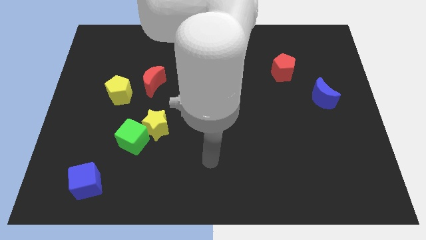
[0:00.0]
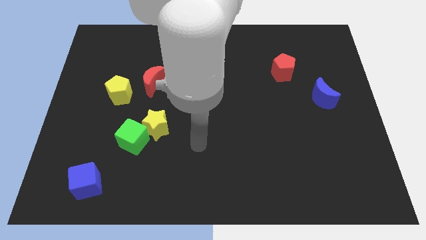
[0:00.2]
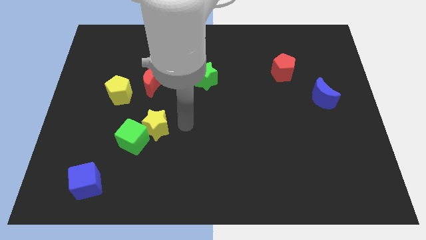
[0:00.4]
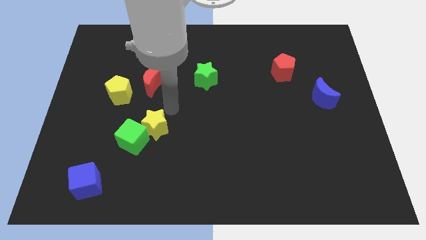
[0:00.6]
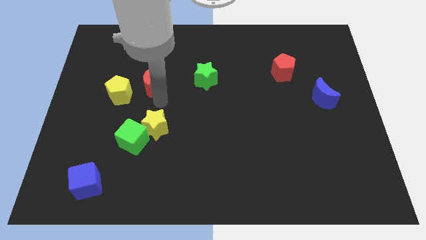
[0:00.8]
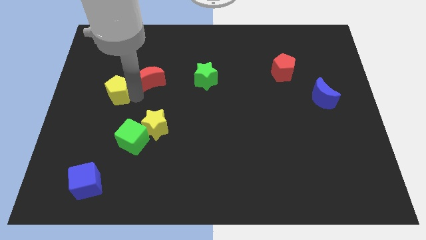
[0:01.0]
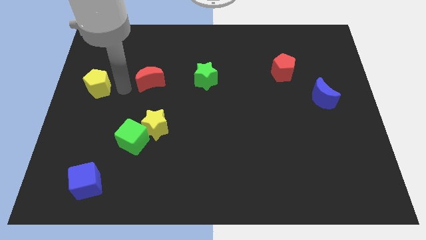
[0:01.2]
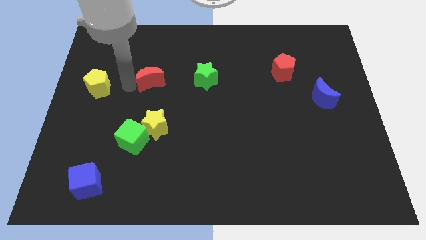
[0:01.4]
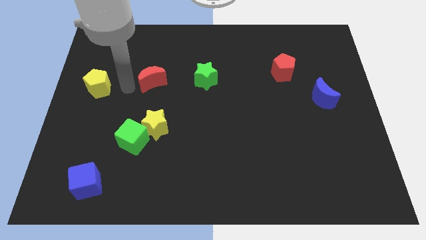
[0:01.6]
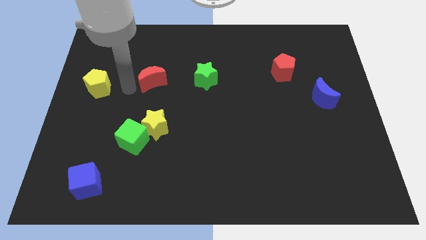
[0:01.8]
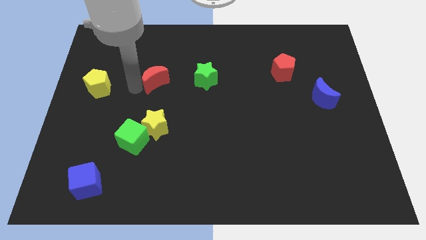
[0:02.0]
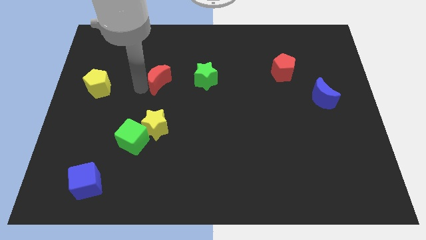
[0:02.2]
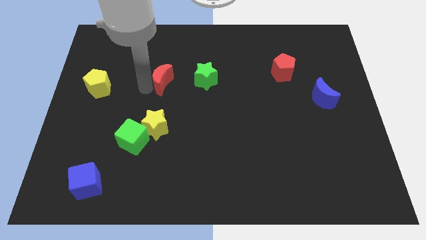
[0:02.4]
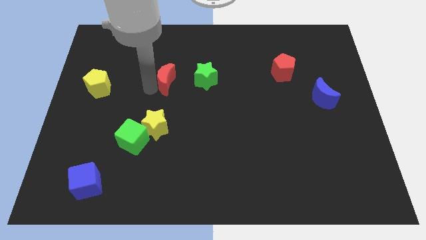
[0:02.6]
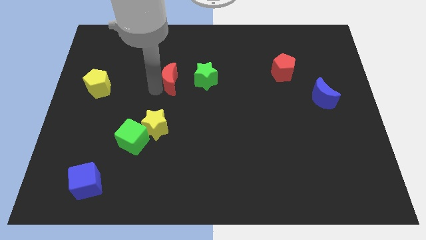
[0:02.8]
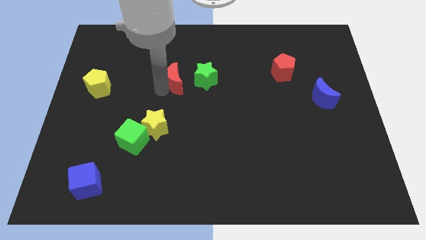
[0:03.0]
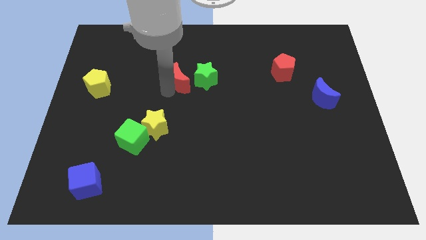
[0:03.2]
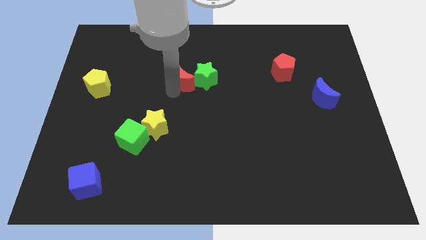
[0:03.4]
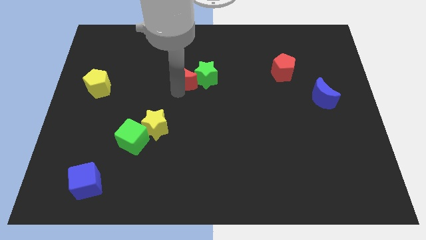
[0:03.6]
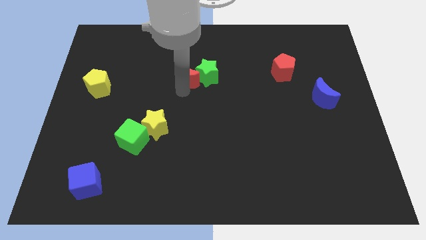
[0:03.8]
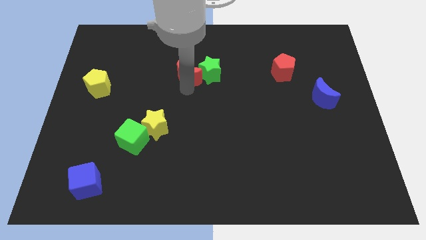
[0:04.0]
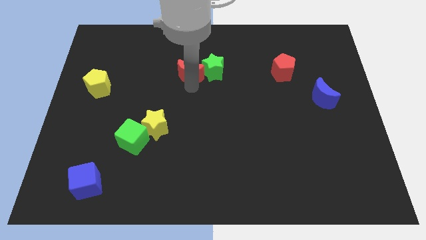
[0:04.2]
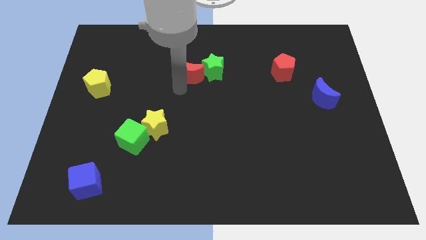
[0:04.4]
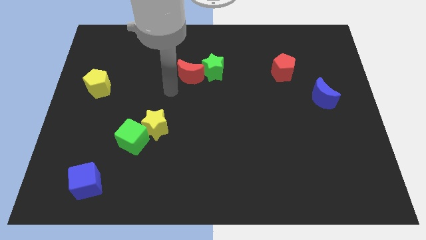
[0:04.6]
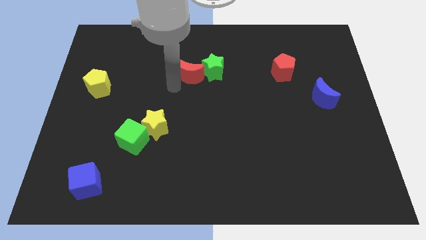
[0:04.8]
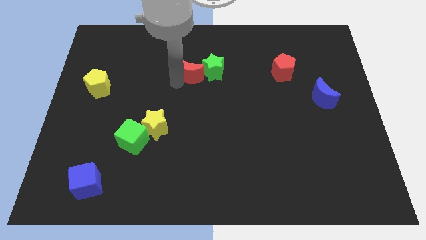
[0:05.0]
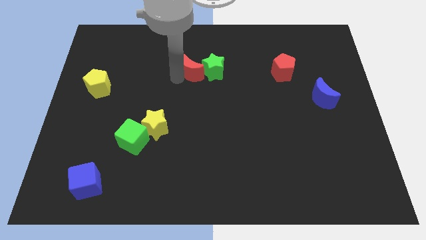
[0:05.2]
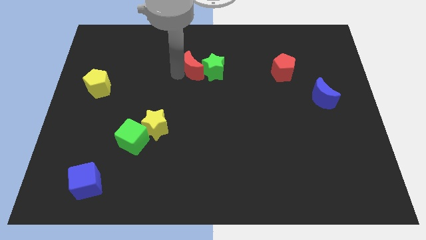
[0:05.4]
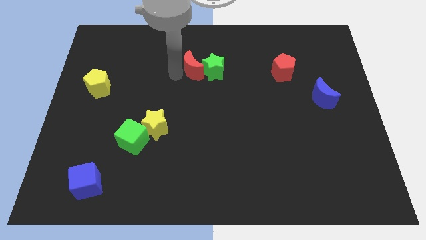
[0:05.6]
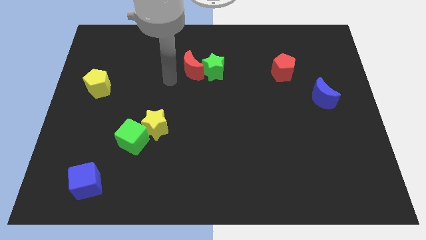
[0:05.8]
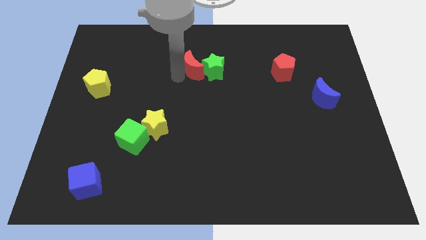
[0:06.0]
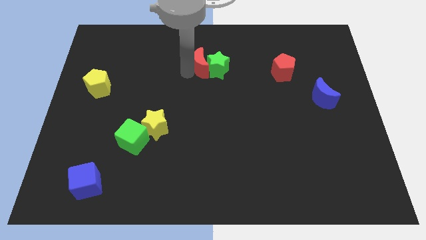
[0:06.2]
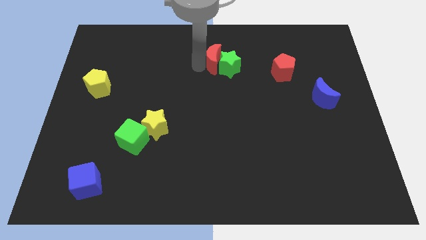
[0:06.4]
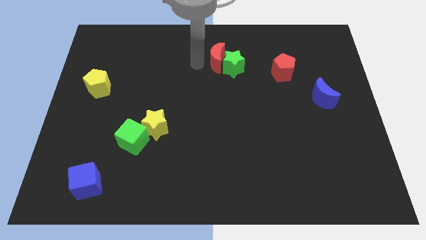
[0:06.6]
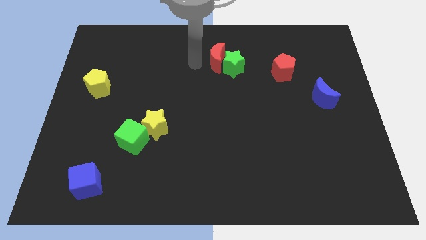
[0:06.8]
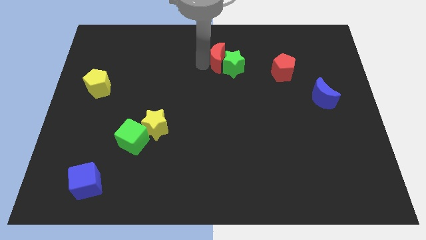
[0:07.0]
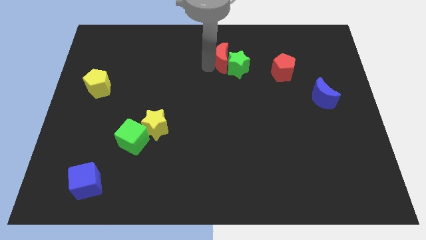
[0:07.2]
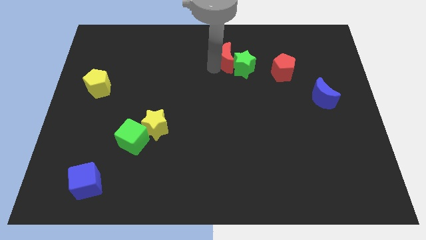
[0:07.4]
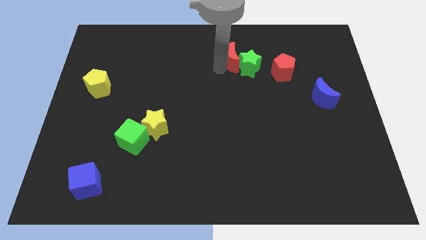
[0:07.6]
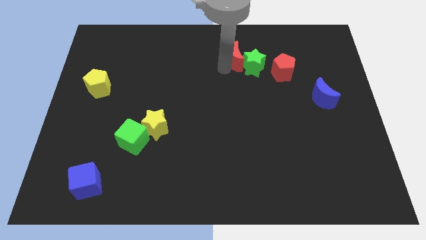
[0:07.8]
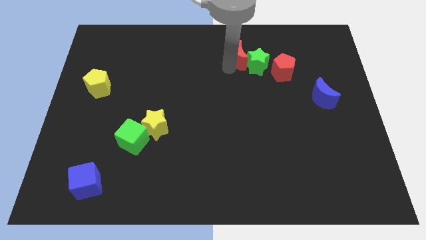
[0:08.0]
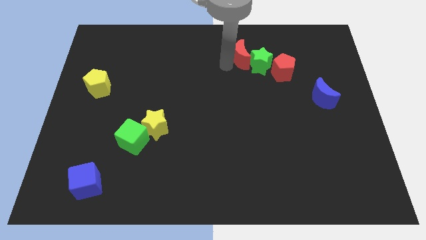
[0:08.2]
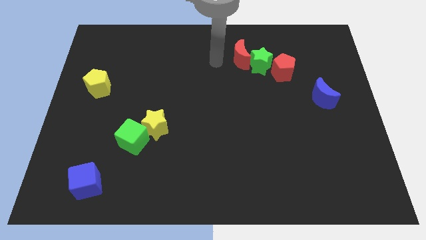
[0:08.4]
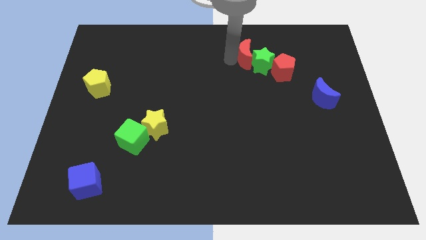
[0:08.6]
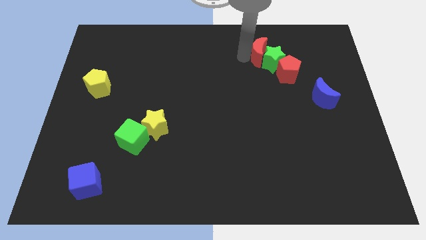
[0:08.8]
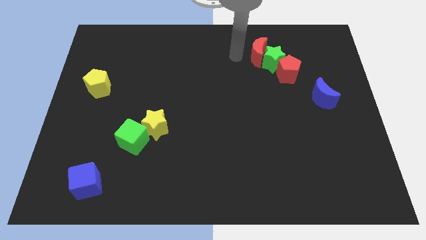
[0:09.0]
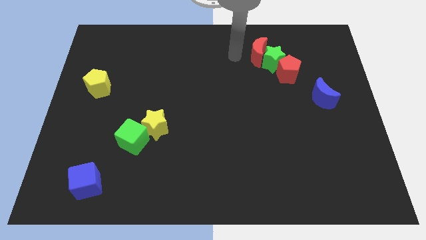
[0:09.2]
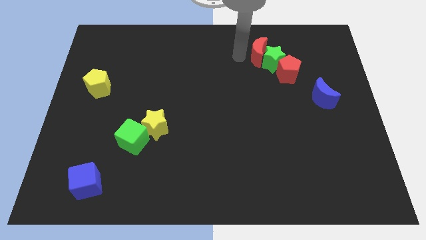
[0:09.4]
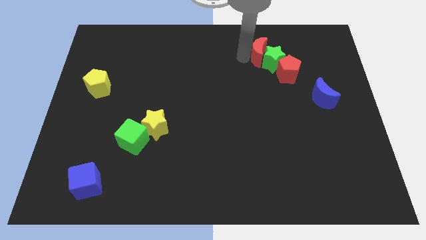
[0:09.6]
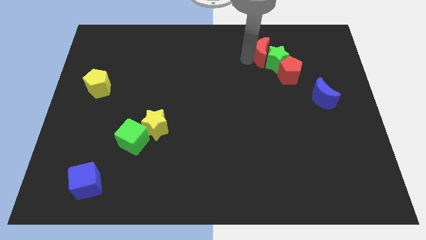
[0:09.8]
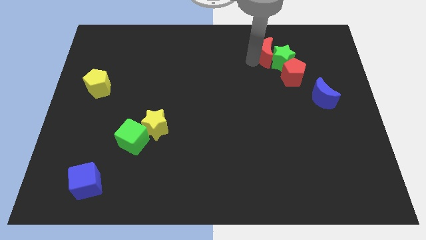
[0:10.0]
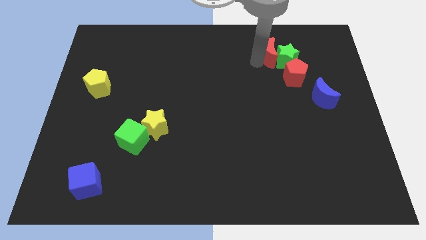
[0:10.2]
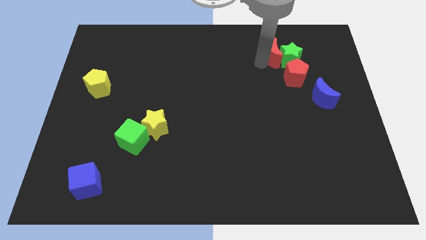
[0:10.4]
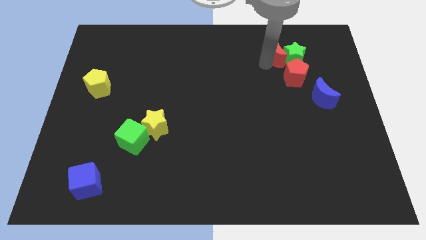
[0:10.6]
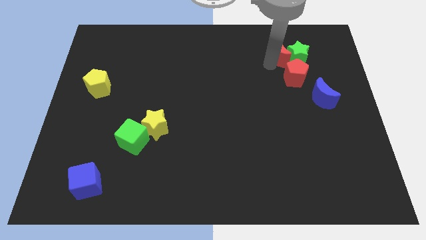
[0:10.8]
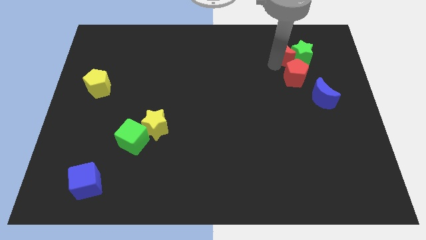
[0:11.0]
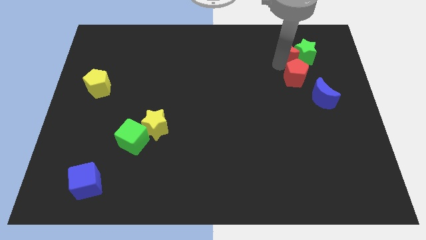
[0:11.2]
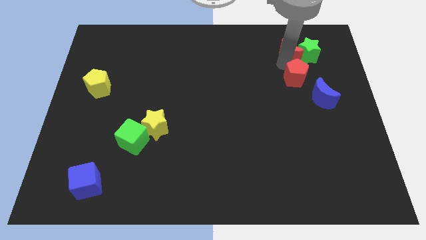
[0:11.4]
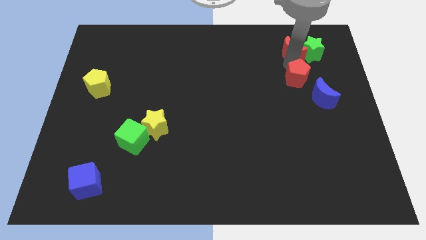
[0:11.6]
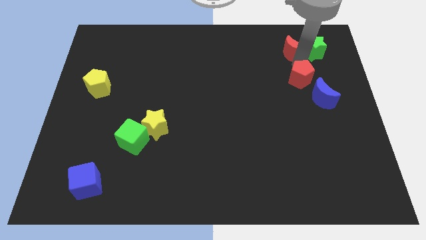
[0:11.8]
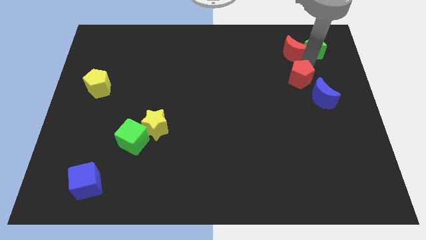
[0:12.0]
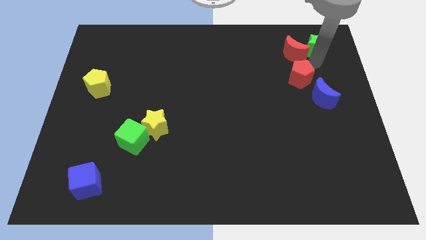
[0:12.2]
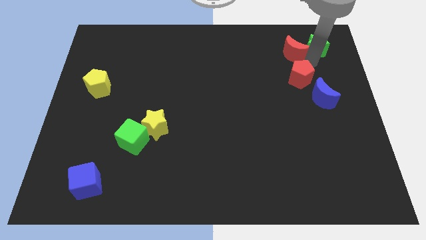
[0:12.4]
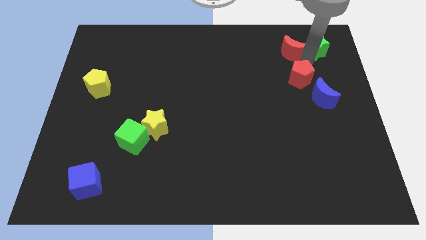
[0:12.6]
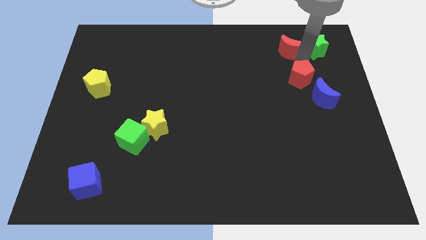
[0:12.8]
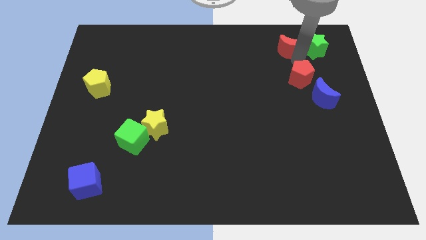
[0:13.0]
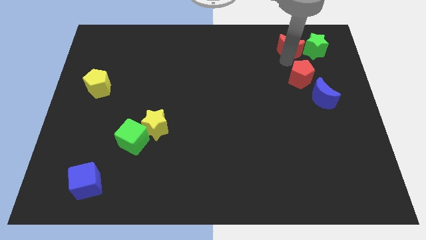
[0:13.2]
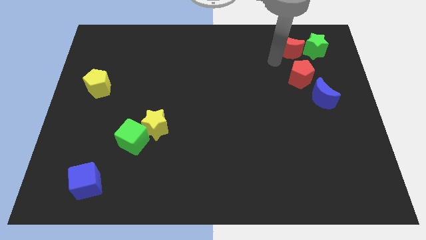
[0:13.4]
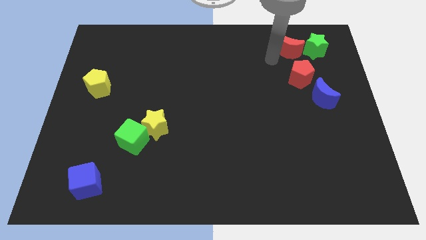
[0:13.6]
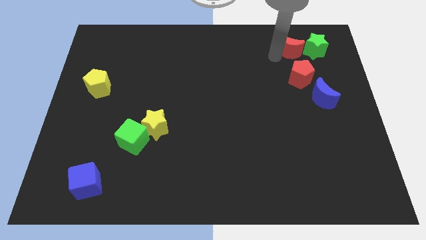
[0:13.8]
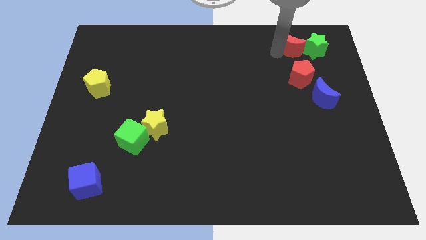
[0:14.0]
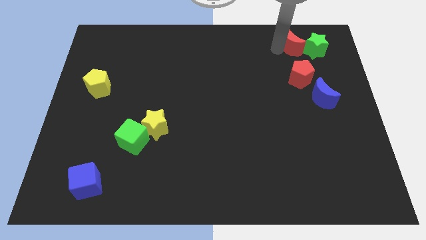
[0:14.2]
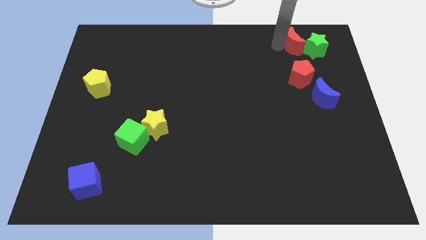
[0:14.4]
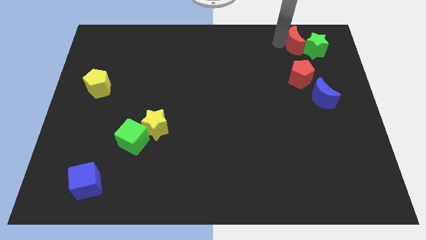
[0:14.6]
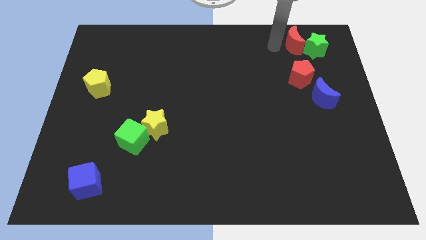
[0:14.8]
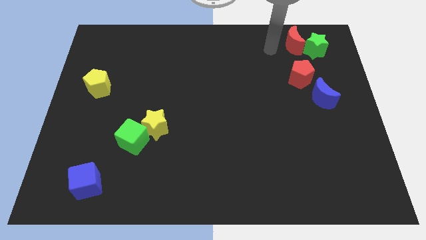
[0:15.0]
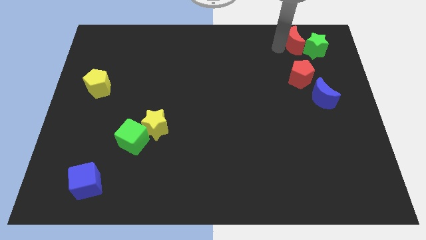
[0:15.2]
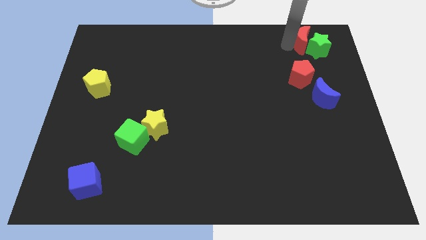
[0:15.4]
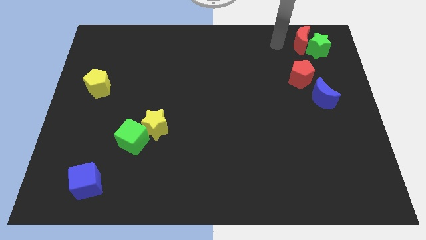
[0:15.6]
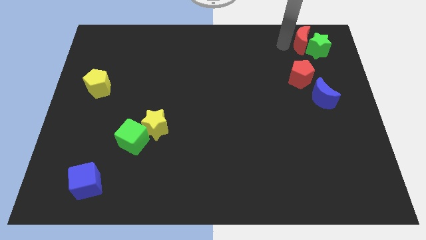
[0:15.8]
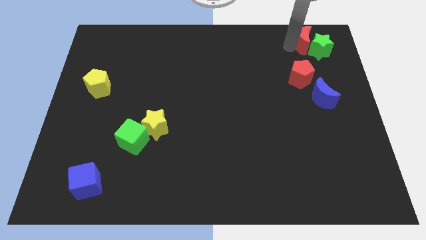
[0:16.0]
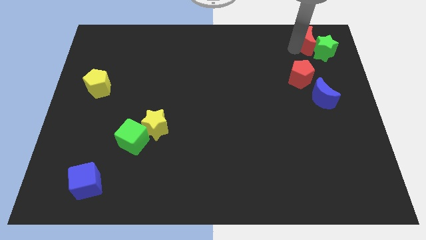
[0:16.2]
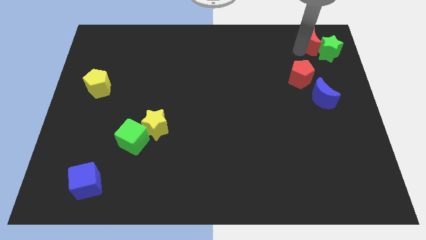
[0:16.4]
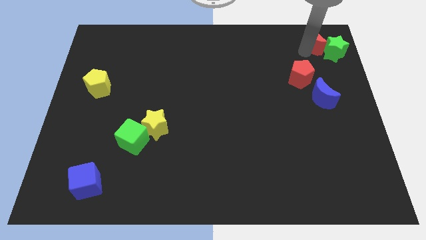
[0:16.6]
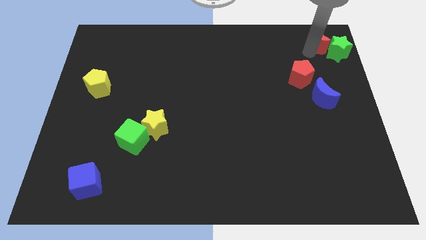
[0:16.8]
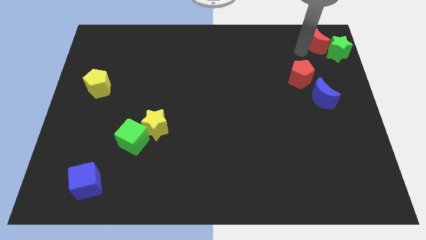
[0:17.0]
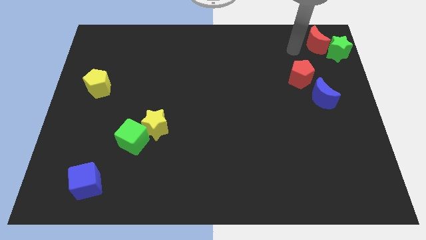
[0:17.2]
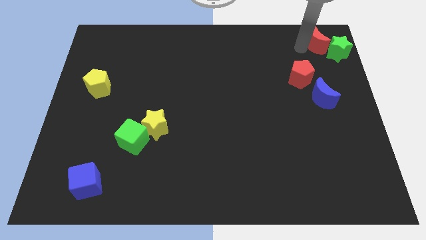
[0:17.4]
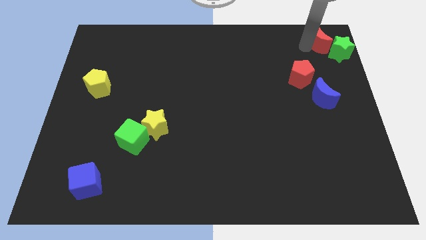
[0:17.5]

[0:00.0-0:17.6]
slide the red moon to the top right corner
